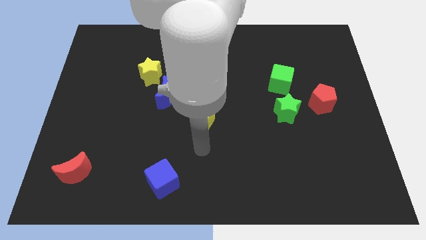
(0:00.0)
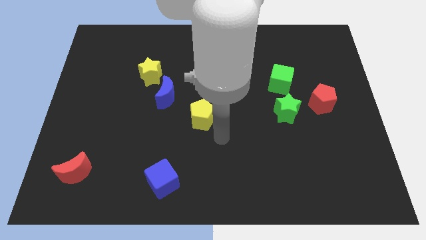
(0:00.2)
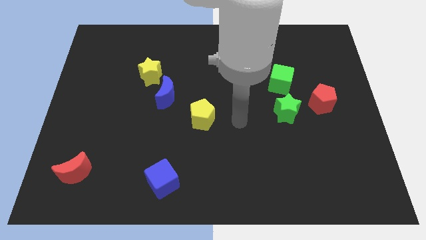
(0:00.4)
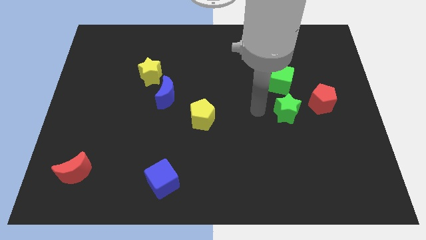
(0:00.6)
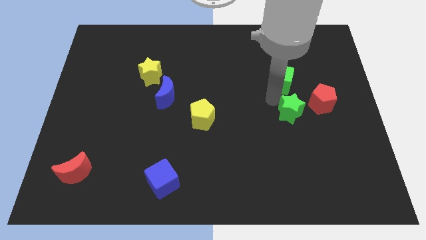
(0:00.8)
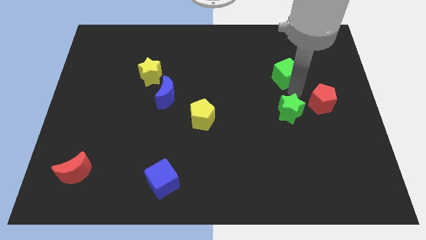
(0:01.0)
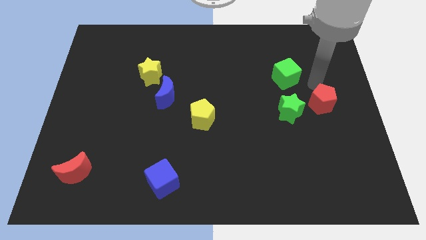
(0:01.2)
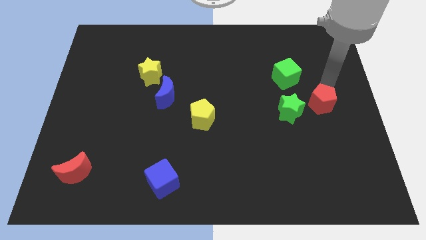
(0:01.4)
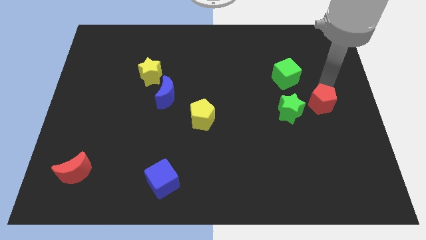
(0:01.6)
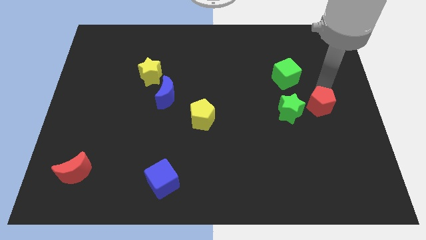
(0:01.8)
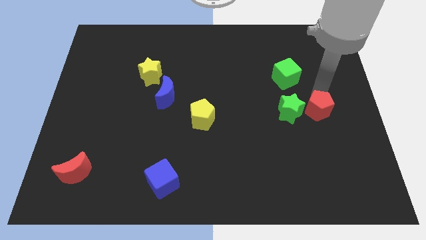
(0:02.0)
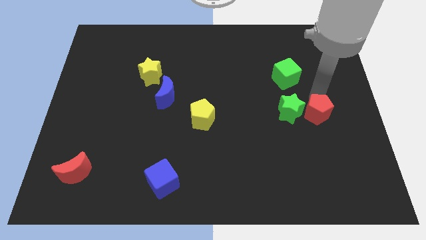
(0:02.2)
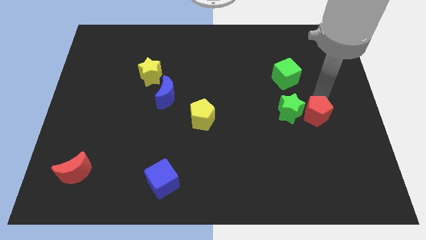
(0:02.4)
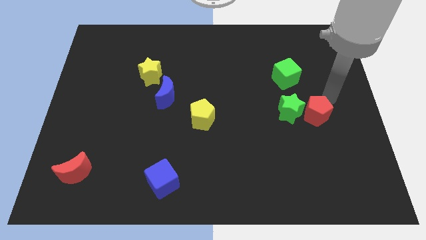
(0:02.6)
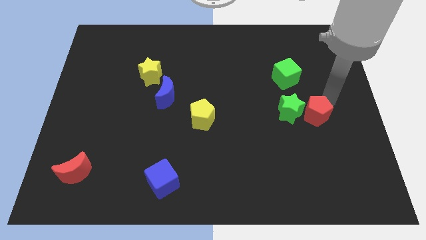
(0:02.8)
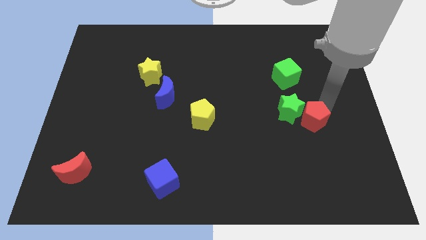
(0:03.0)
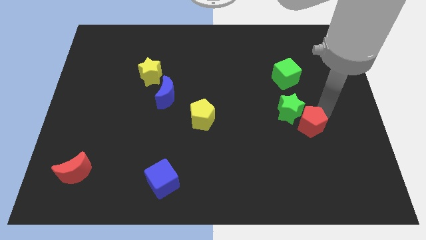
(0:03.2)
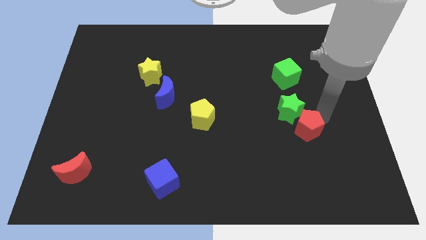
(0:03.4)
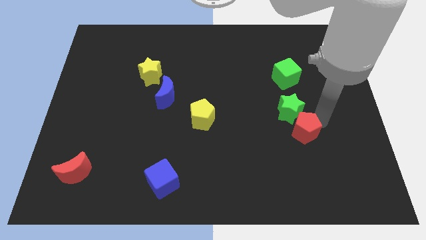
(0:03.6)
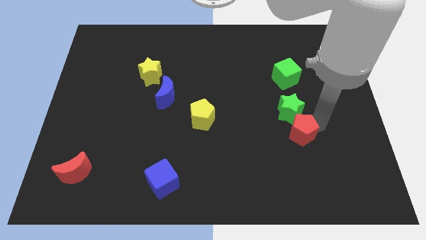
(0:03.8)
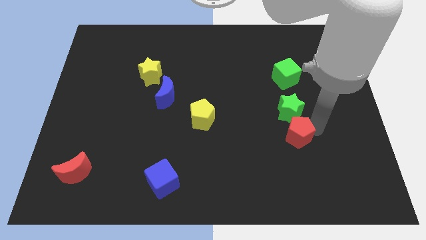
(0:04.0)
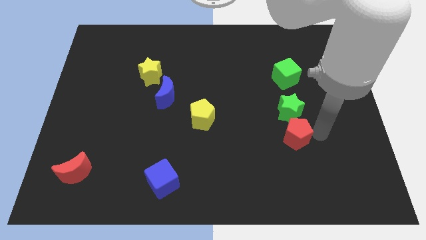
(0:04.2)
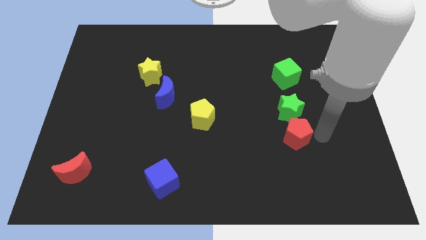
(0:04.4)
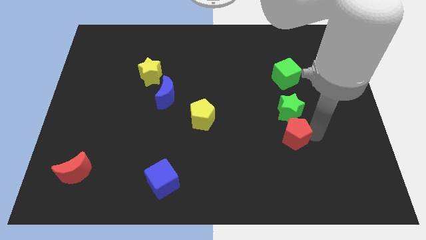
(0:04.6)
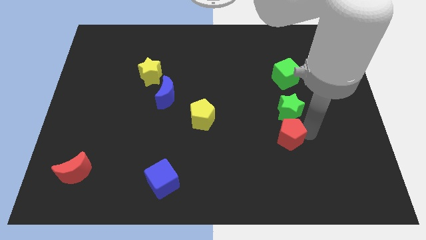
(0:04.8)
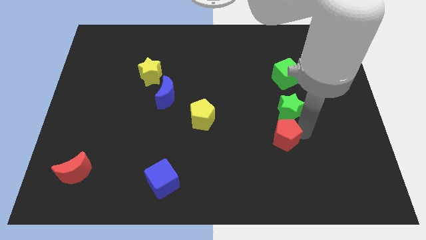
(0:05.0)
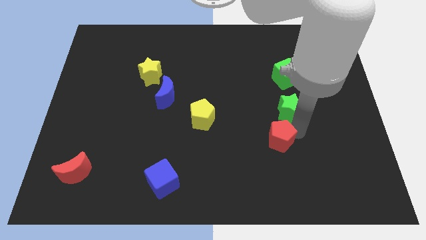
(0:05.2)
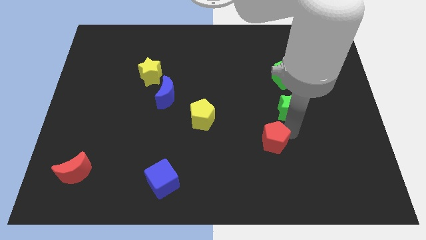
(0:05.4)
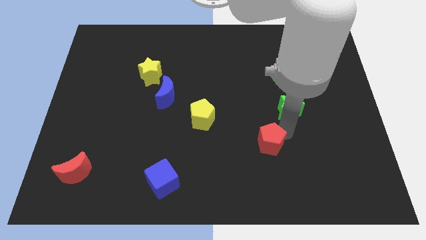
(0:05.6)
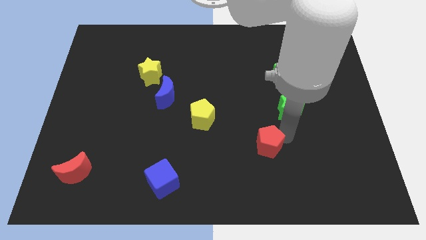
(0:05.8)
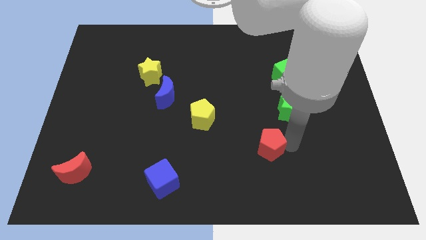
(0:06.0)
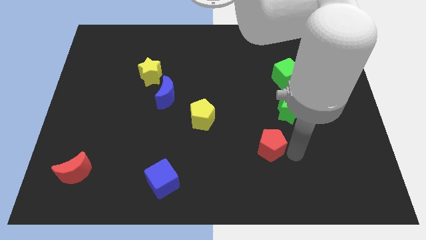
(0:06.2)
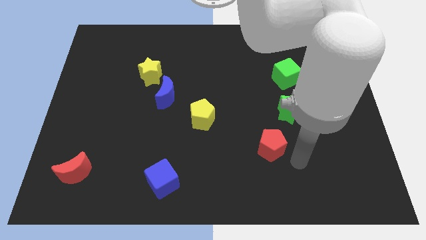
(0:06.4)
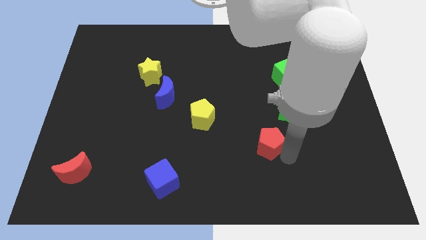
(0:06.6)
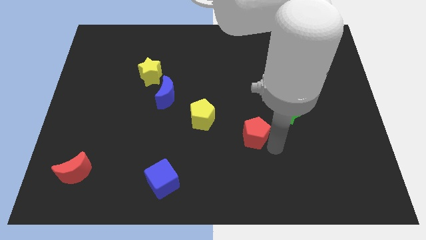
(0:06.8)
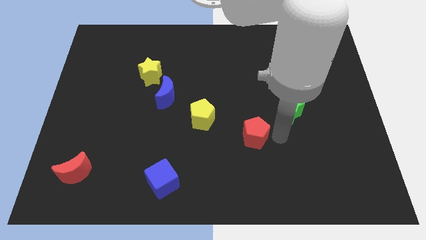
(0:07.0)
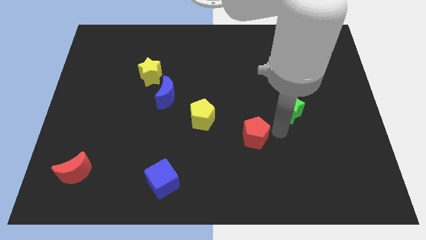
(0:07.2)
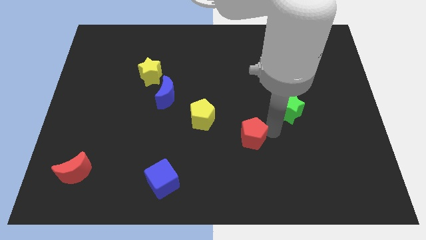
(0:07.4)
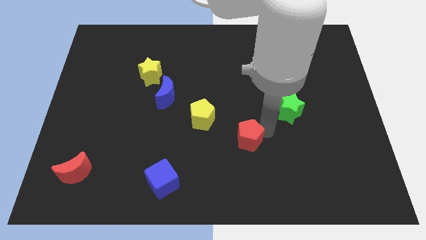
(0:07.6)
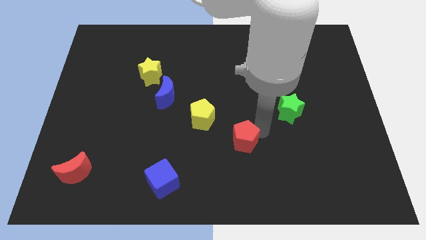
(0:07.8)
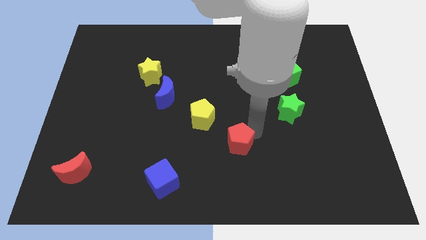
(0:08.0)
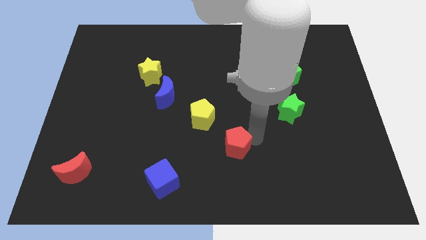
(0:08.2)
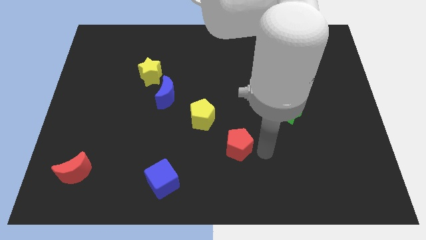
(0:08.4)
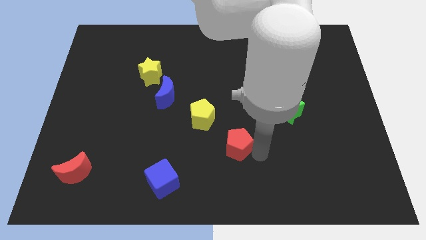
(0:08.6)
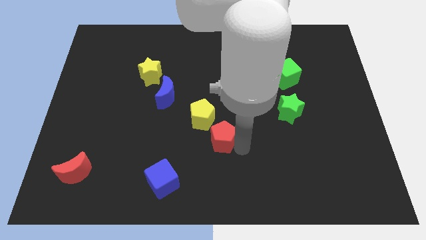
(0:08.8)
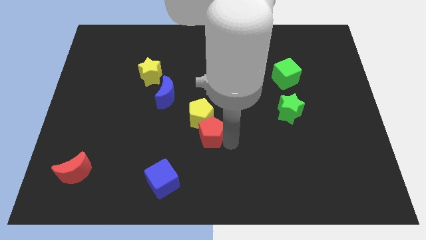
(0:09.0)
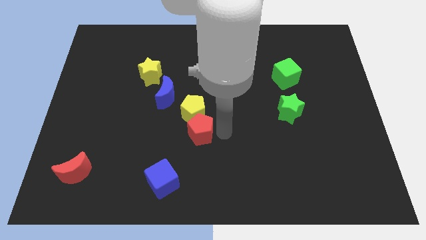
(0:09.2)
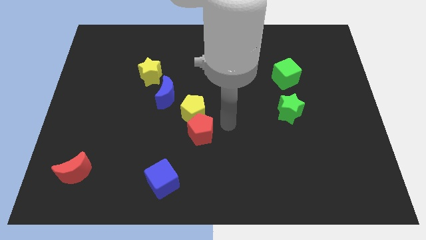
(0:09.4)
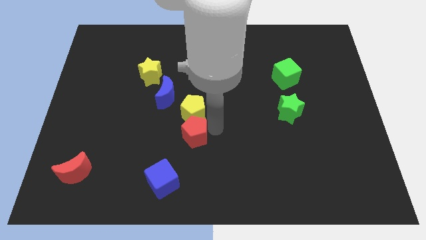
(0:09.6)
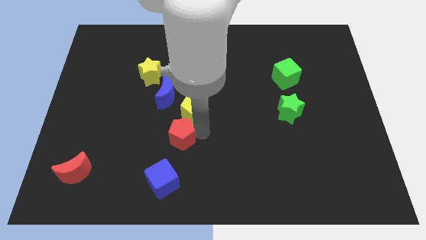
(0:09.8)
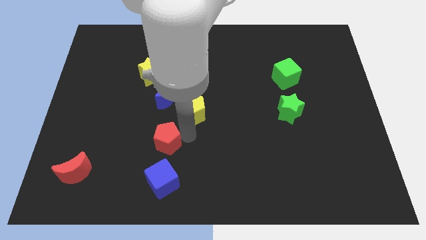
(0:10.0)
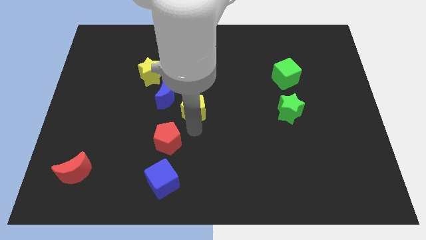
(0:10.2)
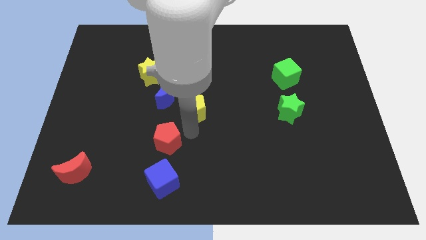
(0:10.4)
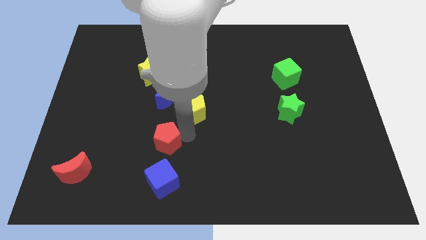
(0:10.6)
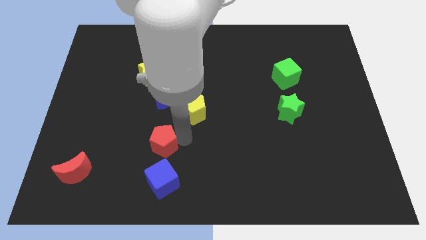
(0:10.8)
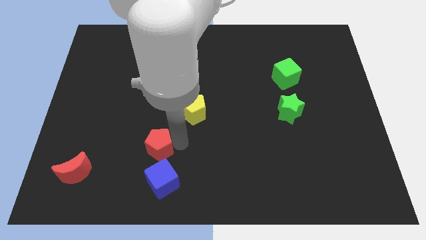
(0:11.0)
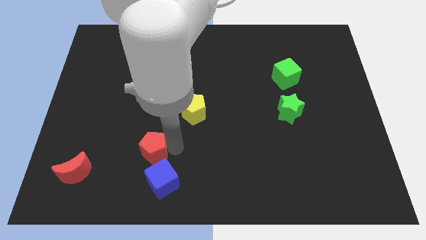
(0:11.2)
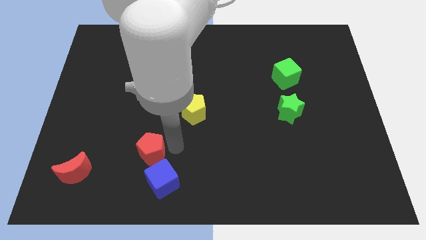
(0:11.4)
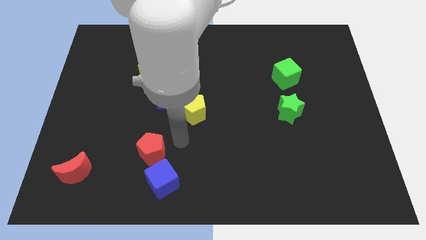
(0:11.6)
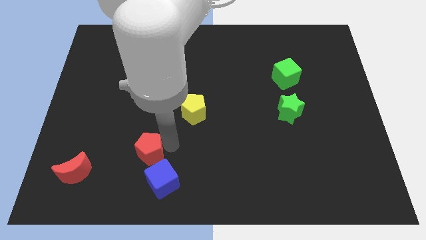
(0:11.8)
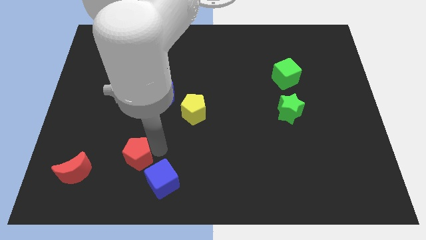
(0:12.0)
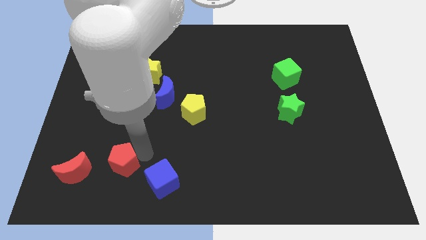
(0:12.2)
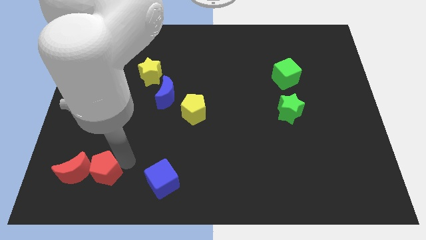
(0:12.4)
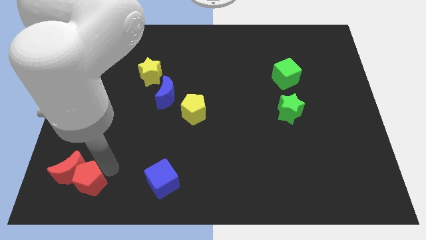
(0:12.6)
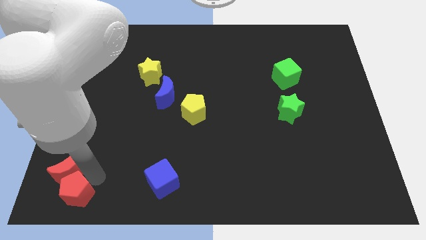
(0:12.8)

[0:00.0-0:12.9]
slide the red pentagon to the bottom left corner
